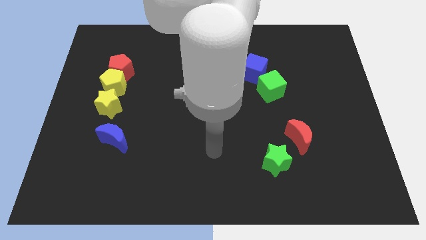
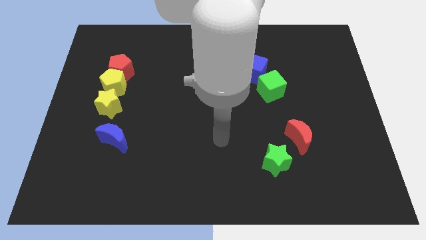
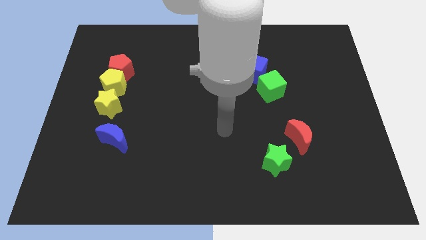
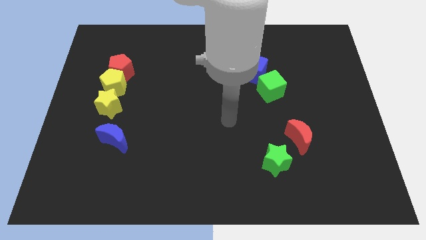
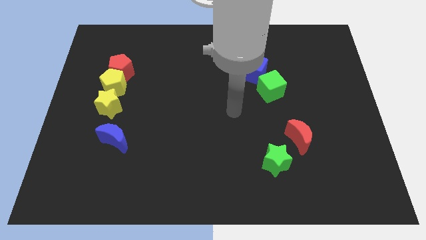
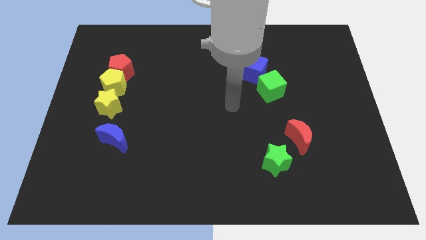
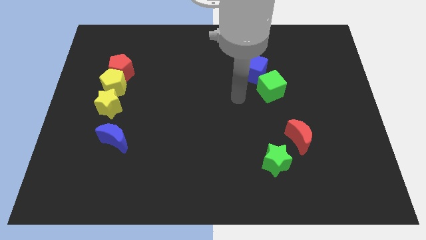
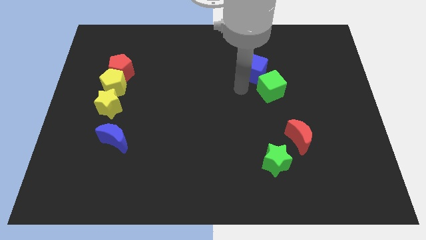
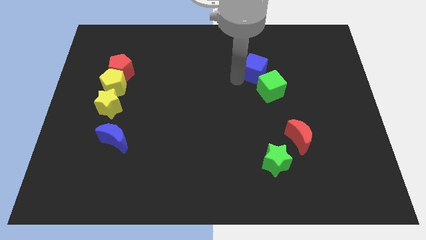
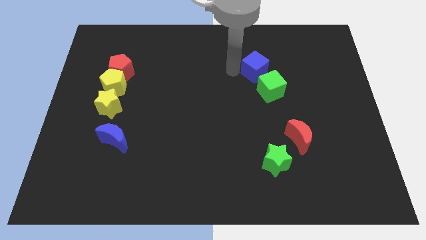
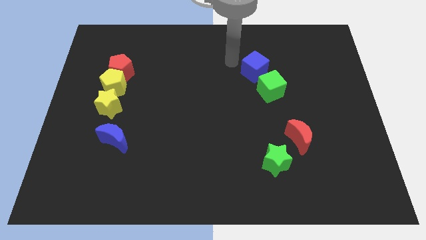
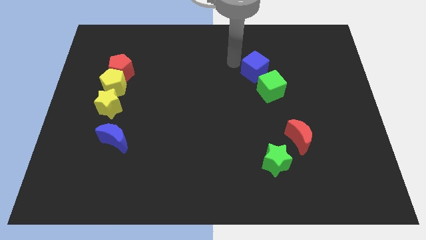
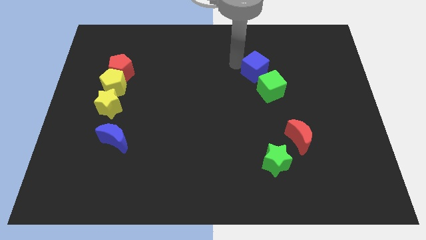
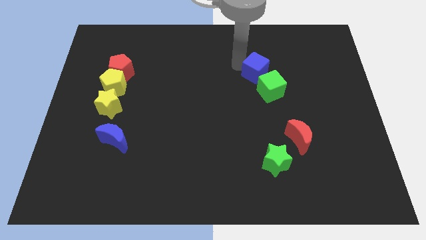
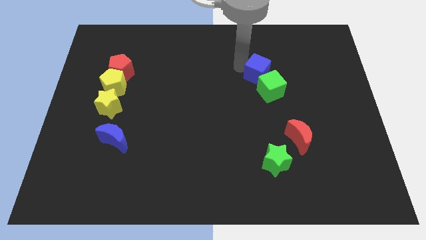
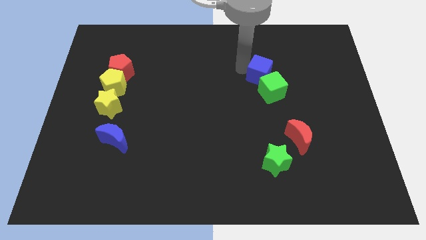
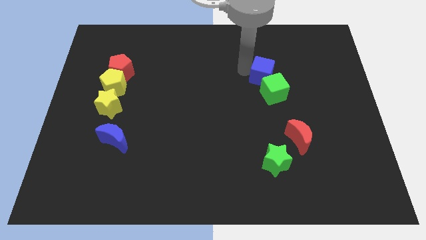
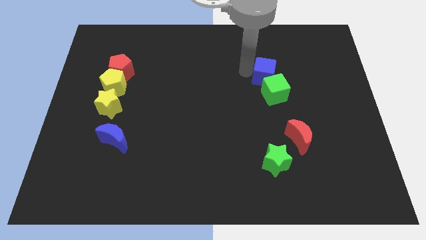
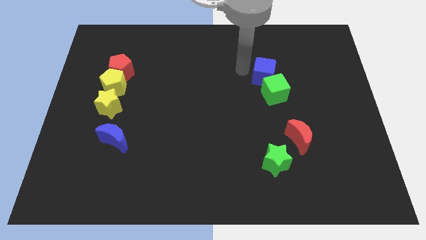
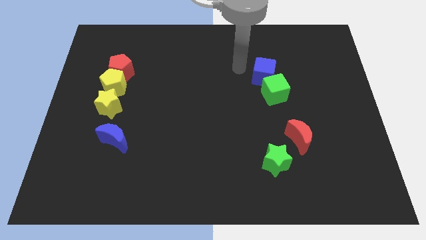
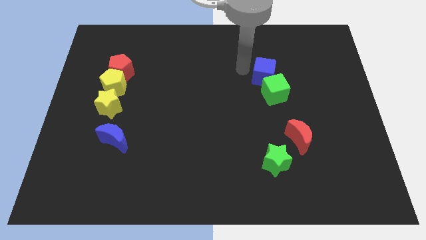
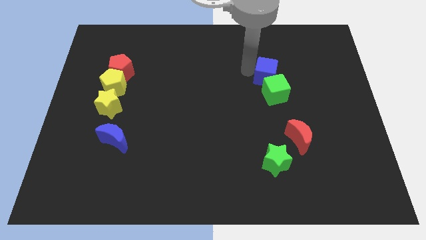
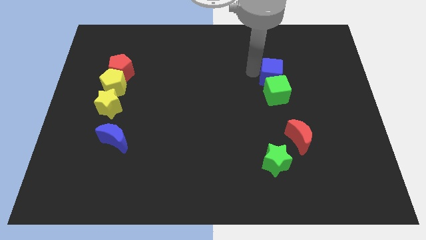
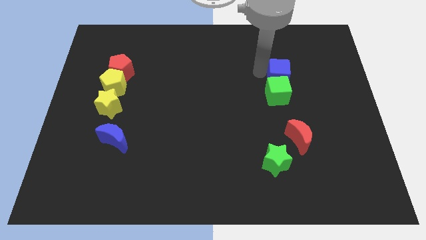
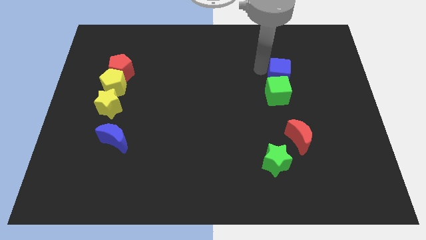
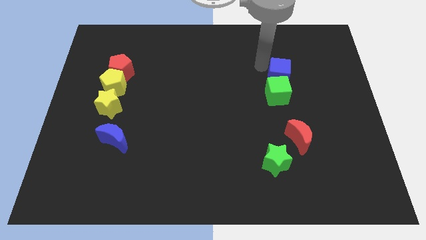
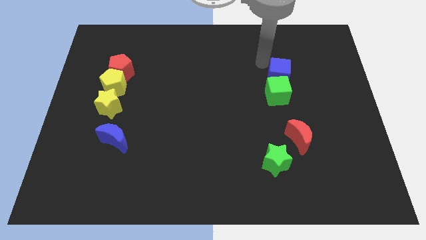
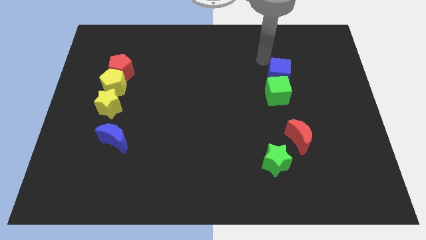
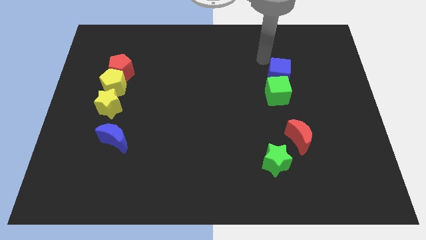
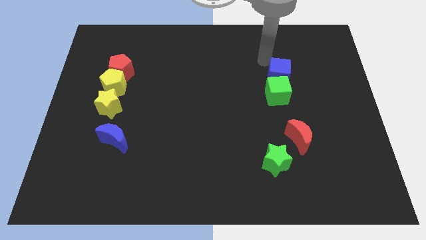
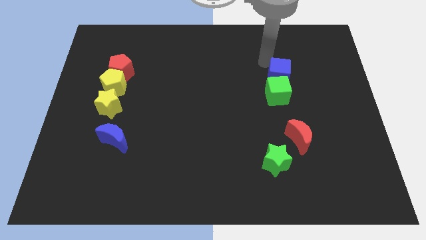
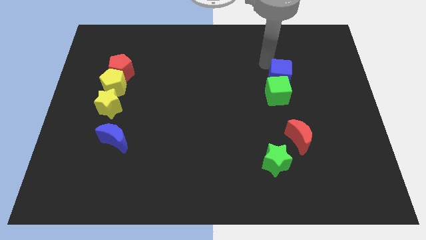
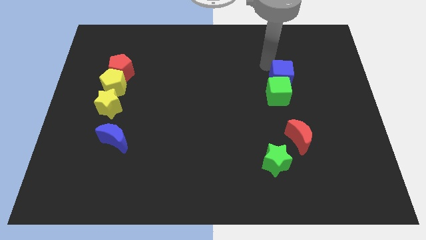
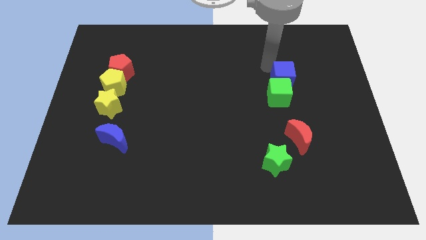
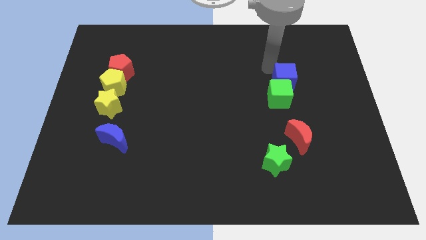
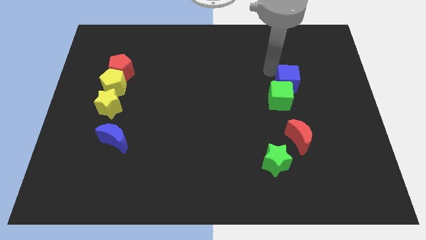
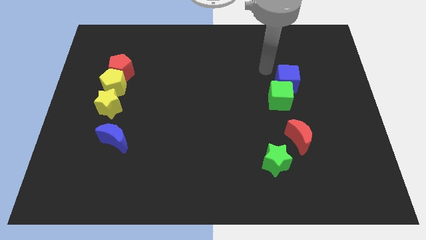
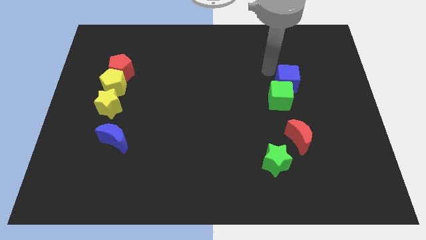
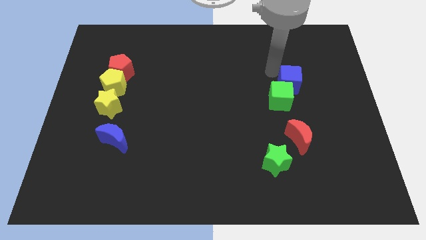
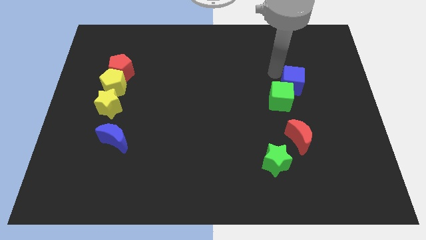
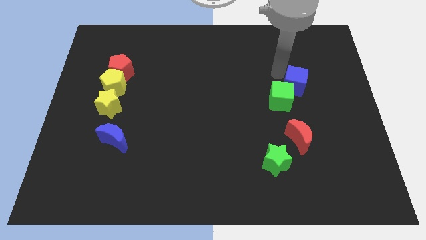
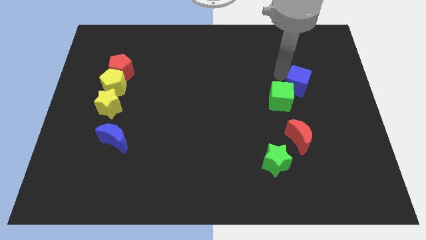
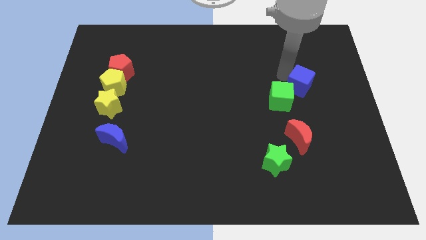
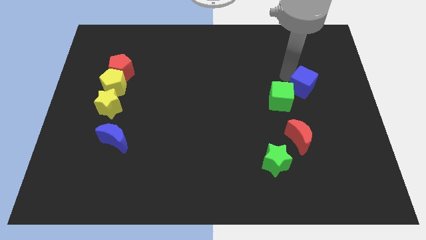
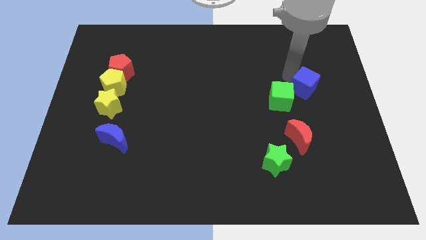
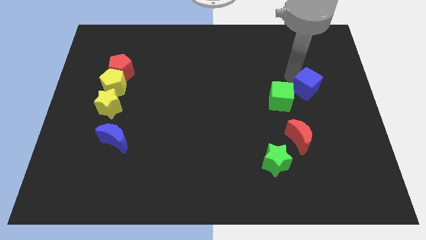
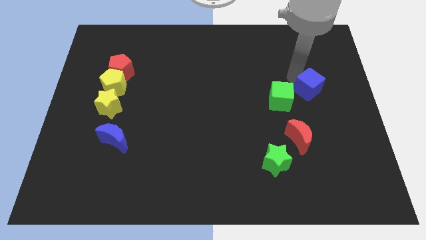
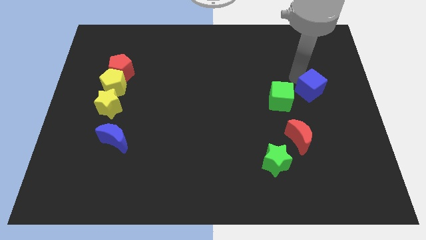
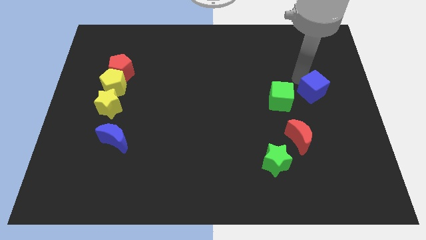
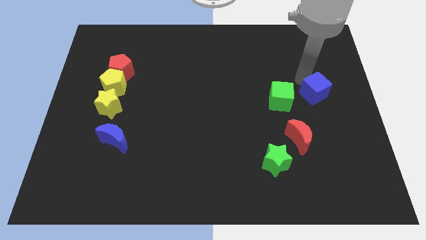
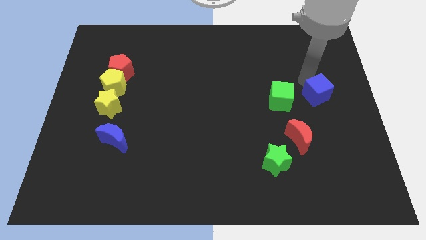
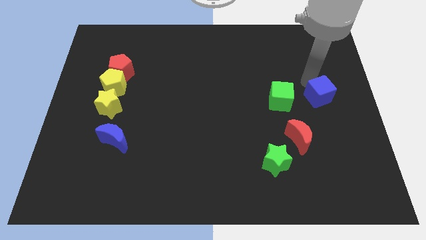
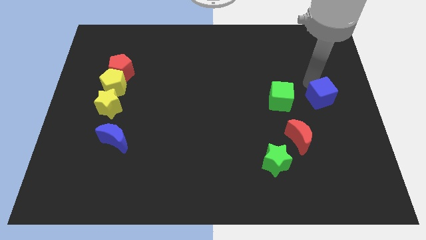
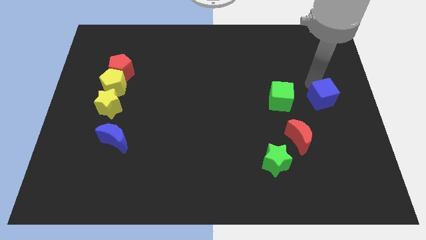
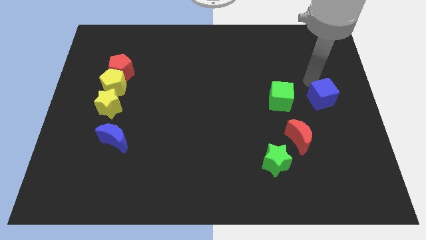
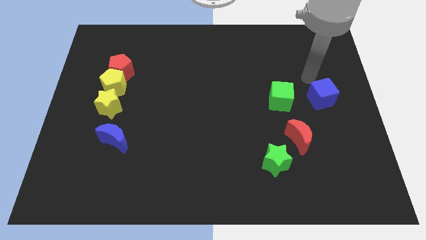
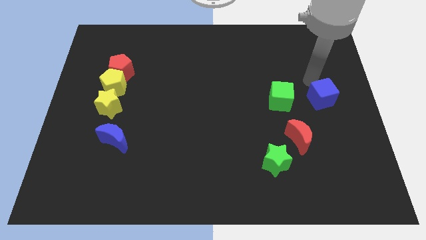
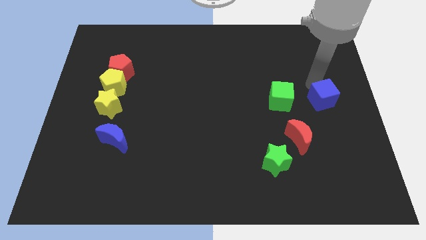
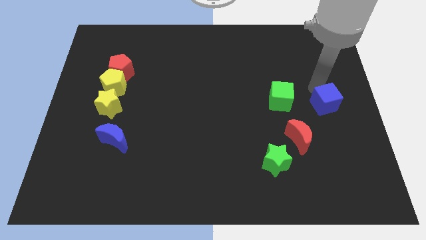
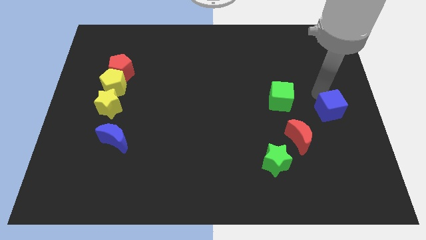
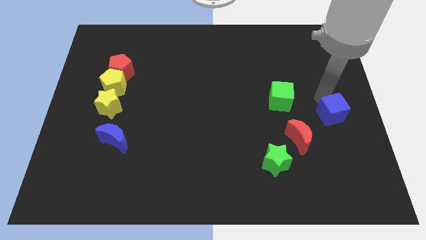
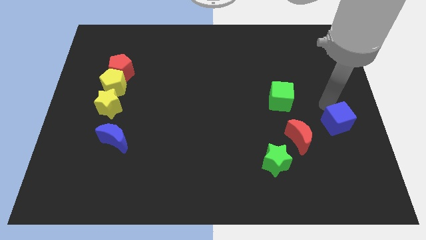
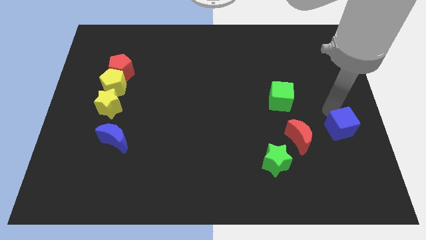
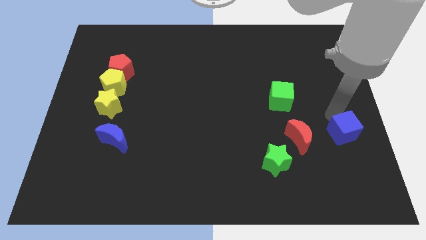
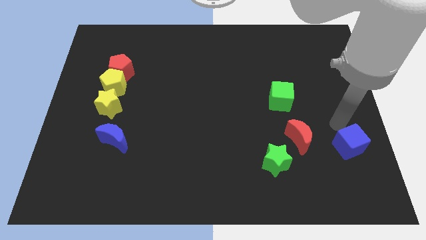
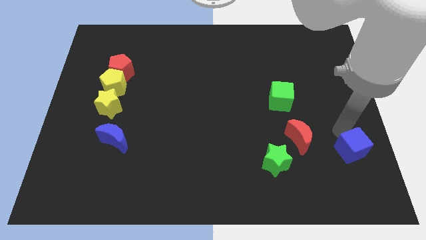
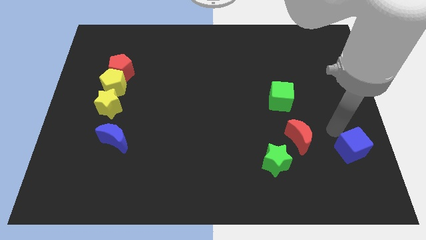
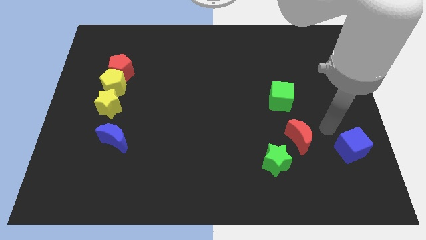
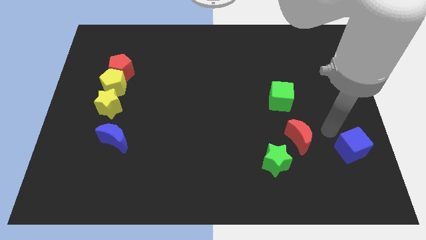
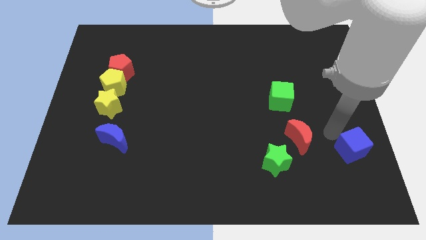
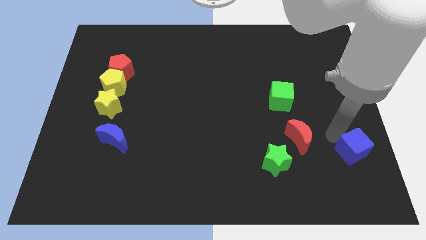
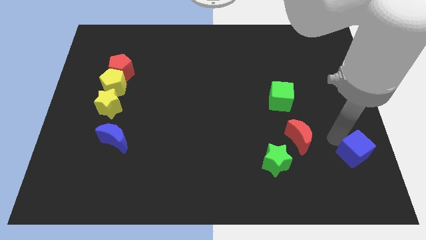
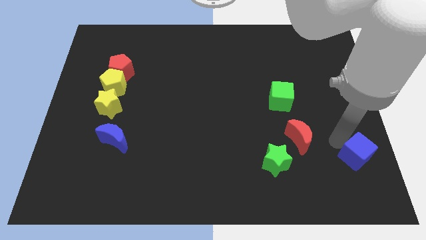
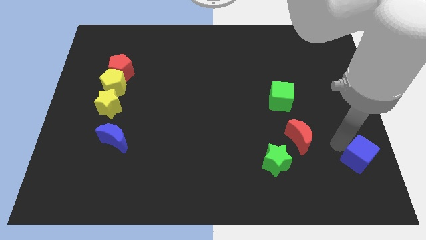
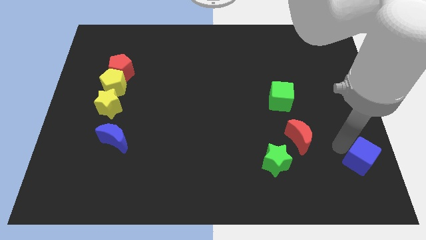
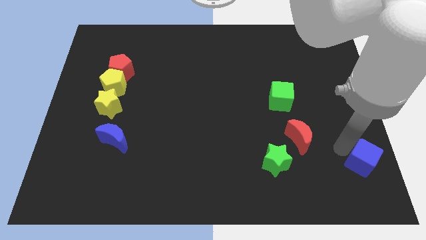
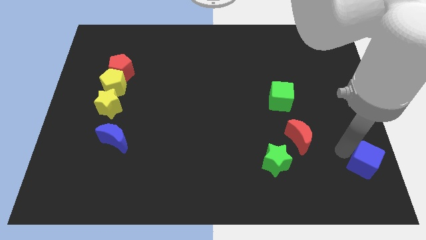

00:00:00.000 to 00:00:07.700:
slide the blue cube to the bottom right corner
